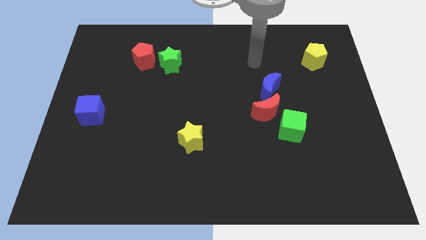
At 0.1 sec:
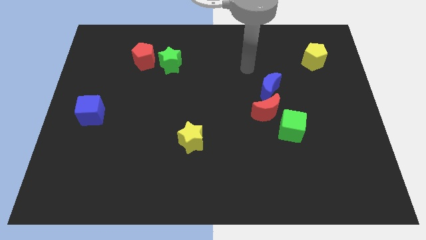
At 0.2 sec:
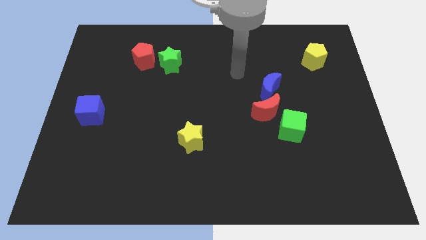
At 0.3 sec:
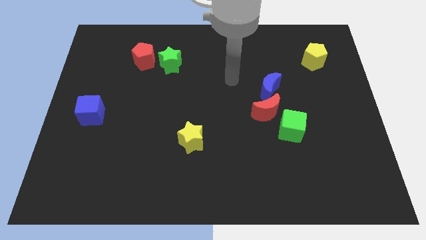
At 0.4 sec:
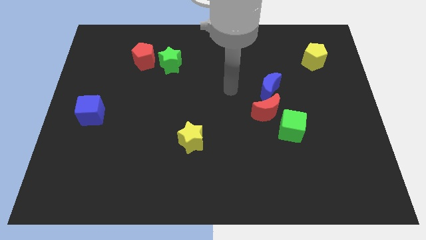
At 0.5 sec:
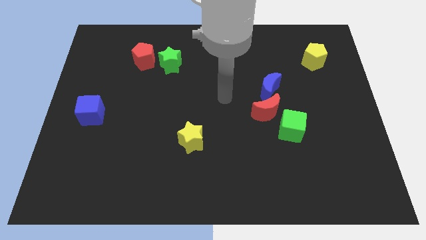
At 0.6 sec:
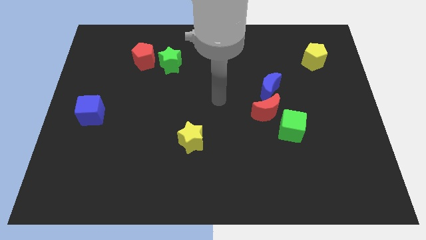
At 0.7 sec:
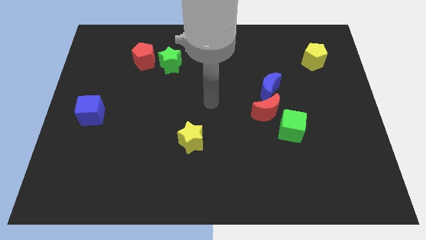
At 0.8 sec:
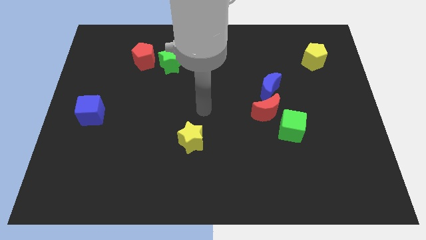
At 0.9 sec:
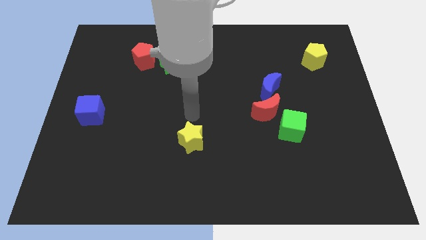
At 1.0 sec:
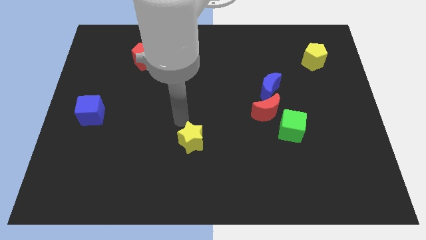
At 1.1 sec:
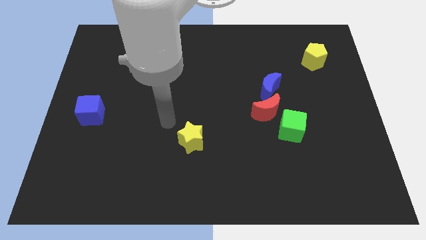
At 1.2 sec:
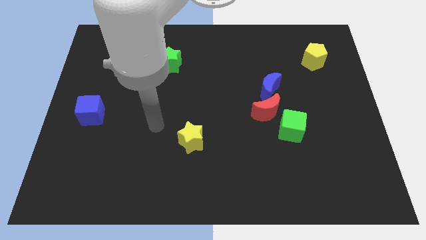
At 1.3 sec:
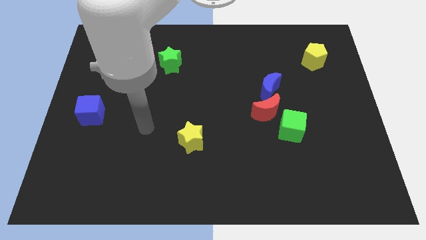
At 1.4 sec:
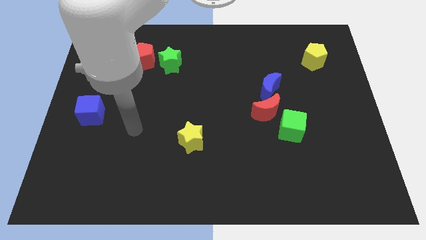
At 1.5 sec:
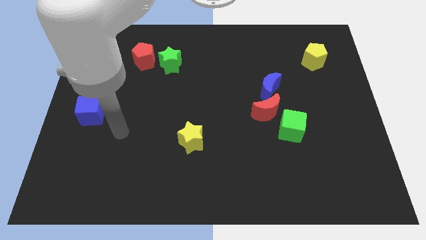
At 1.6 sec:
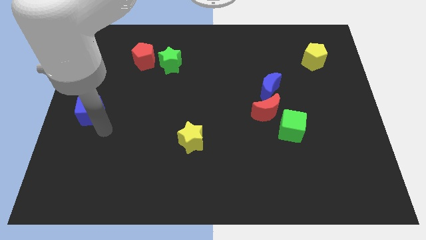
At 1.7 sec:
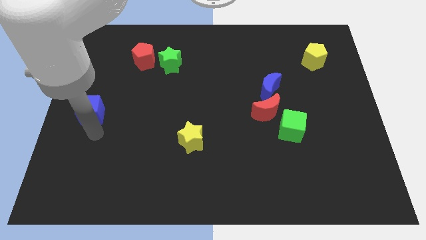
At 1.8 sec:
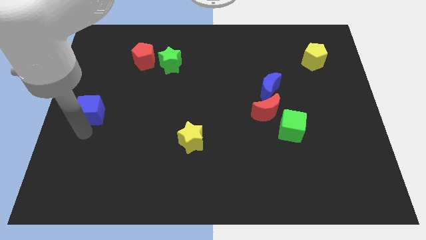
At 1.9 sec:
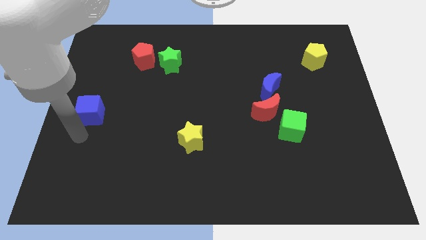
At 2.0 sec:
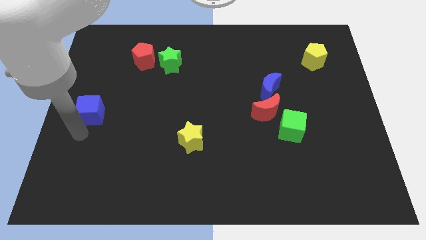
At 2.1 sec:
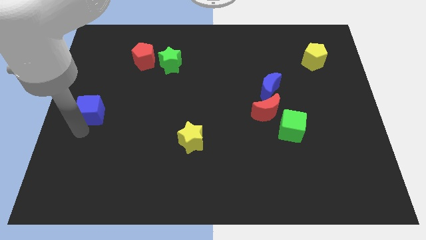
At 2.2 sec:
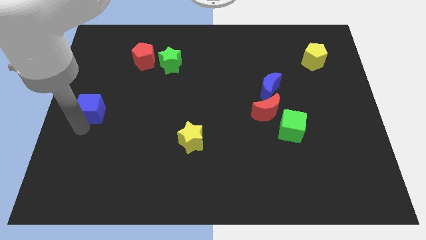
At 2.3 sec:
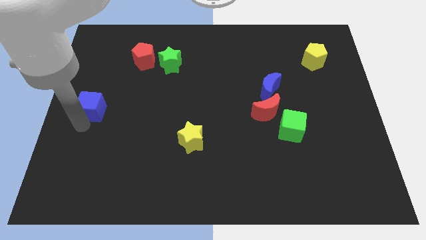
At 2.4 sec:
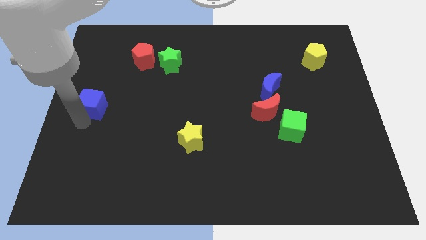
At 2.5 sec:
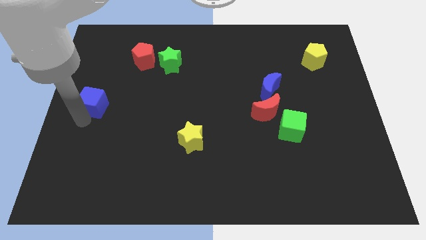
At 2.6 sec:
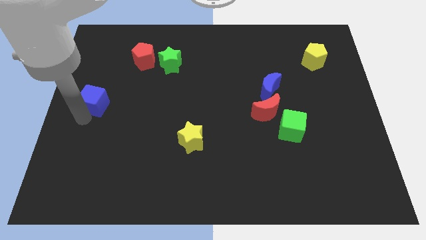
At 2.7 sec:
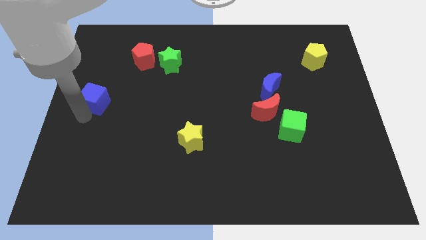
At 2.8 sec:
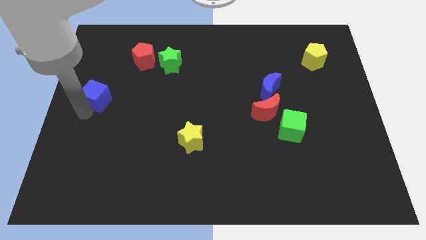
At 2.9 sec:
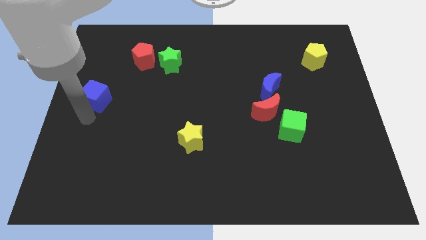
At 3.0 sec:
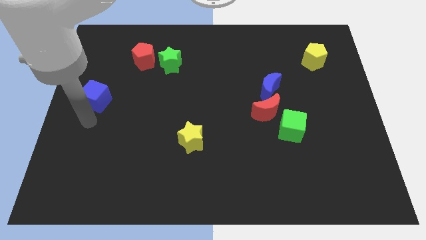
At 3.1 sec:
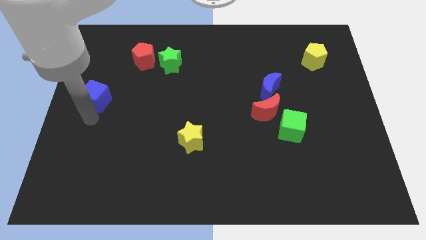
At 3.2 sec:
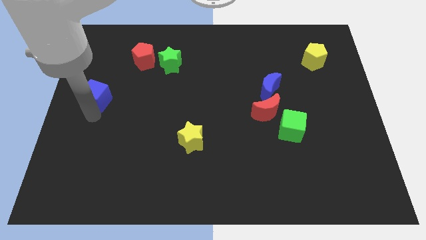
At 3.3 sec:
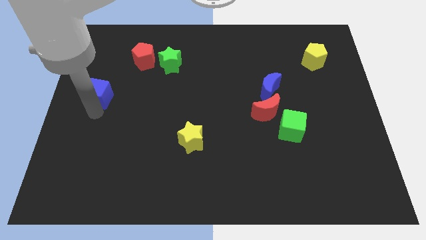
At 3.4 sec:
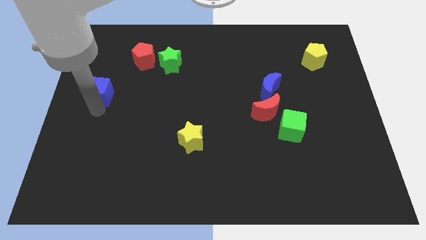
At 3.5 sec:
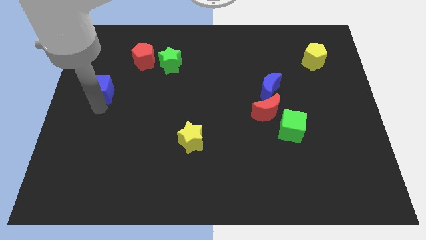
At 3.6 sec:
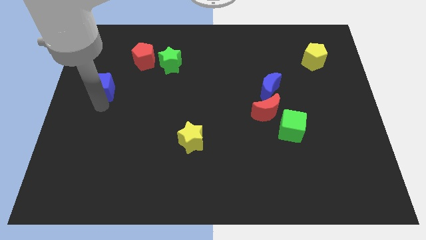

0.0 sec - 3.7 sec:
move the blue cube upwards somewhat

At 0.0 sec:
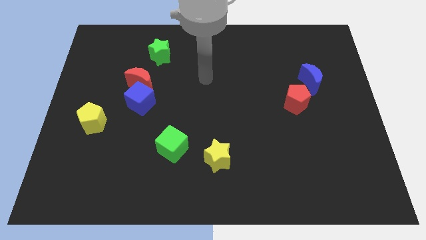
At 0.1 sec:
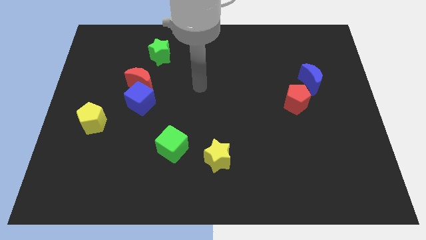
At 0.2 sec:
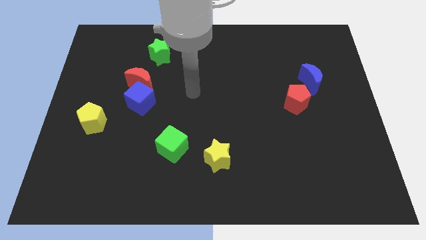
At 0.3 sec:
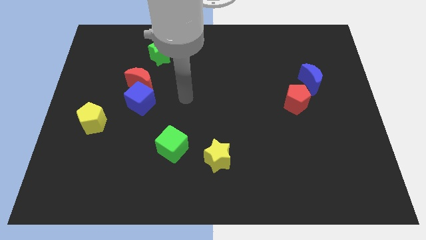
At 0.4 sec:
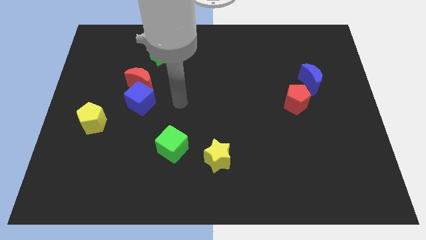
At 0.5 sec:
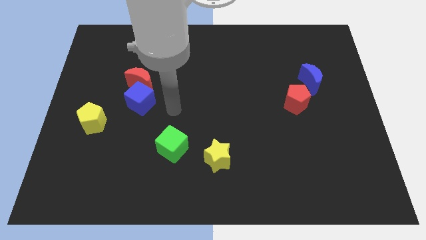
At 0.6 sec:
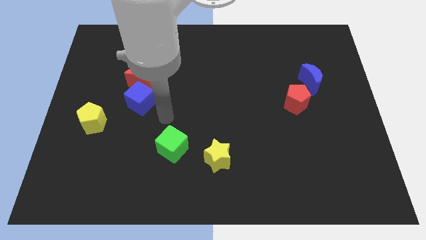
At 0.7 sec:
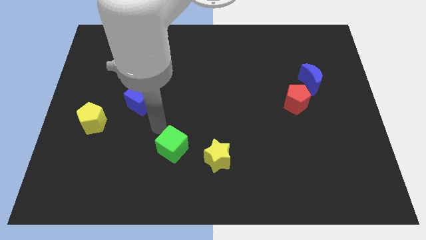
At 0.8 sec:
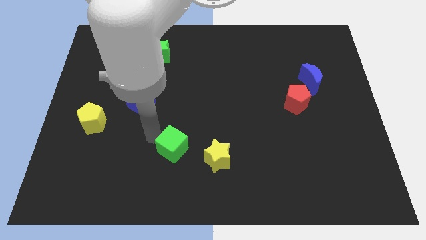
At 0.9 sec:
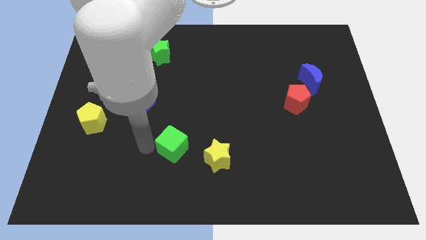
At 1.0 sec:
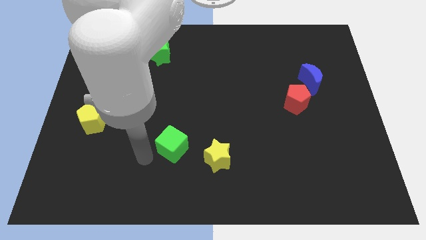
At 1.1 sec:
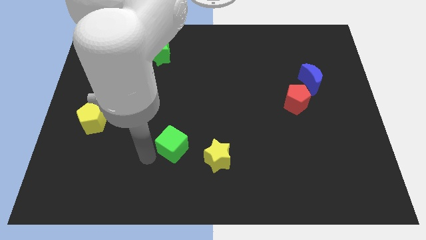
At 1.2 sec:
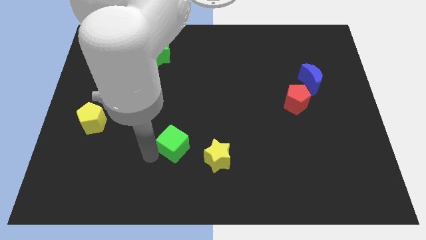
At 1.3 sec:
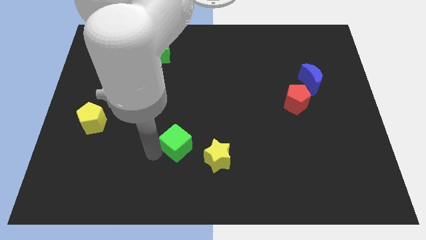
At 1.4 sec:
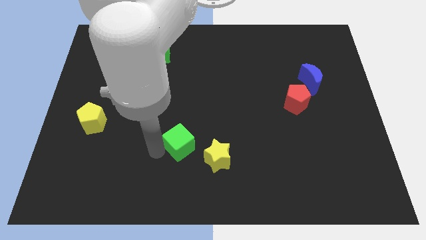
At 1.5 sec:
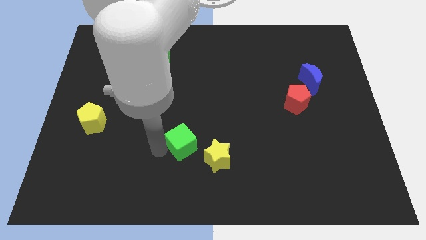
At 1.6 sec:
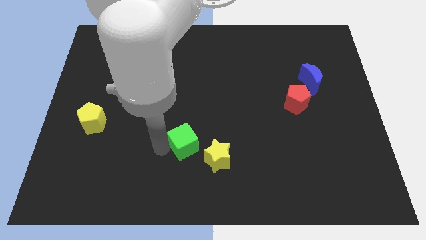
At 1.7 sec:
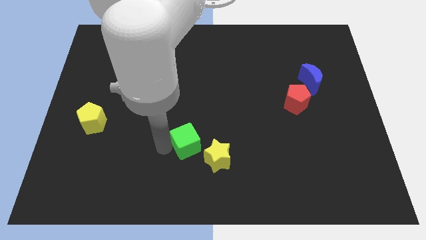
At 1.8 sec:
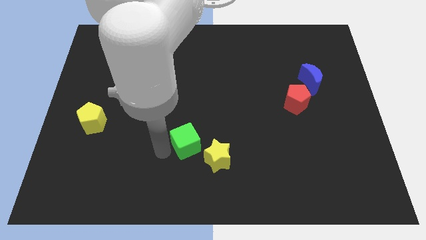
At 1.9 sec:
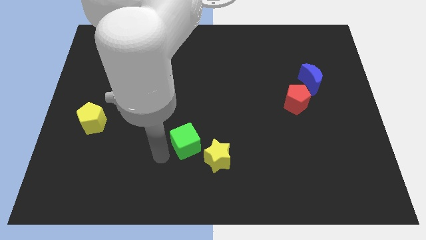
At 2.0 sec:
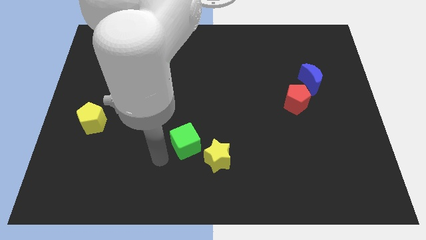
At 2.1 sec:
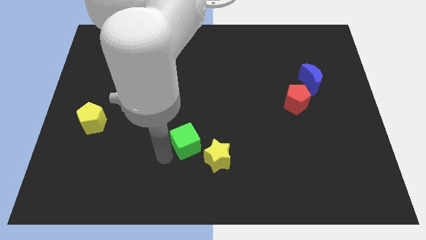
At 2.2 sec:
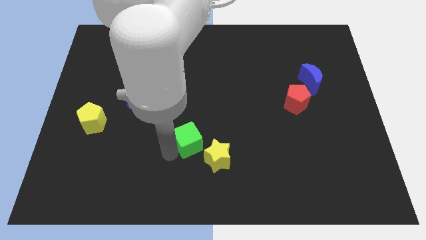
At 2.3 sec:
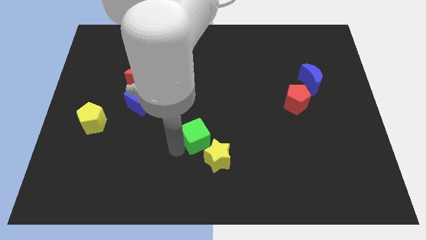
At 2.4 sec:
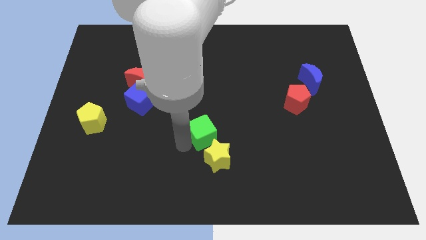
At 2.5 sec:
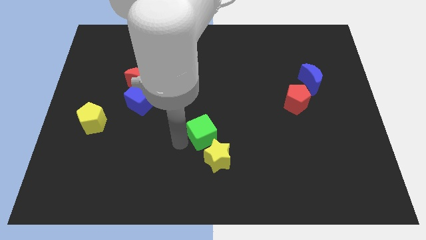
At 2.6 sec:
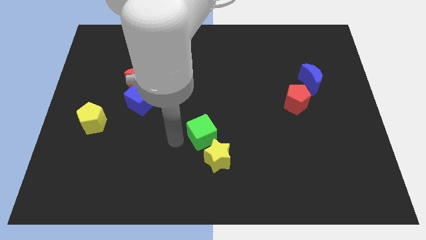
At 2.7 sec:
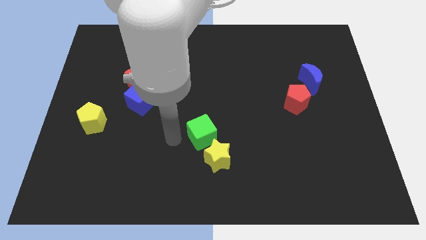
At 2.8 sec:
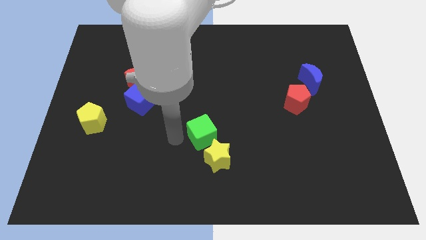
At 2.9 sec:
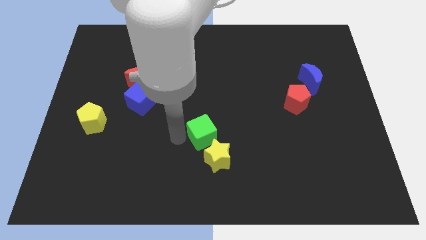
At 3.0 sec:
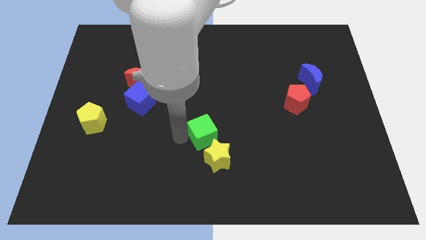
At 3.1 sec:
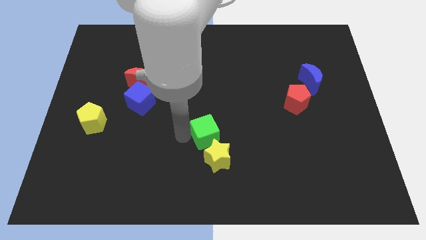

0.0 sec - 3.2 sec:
slightly slide the green cube to the right

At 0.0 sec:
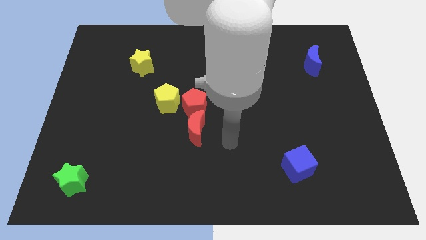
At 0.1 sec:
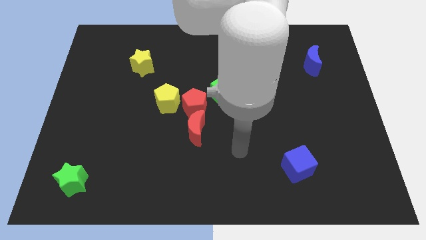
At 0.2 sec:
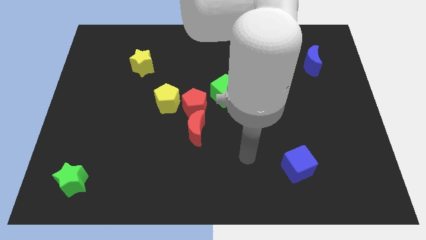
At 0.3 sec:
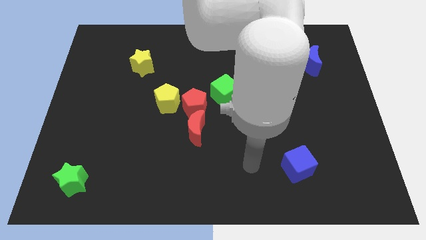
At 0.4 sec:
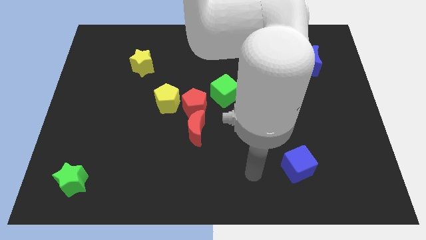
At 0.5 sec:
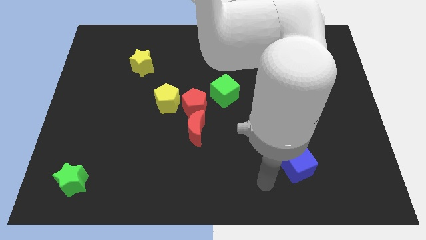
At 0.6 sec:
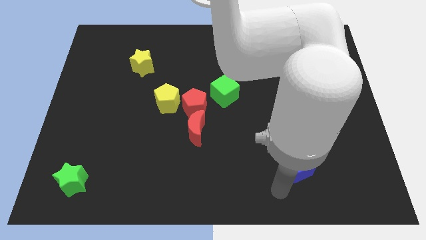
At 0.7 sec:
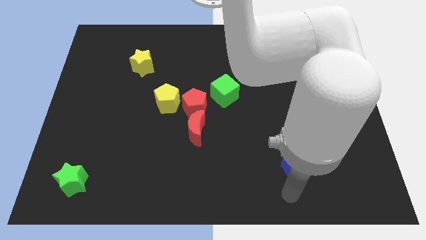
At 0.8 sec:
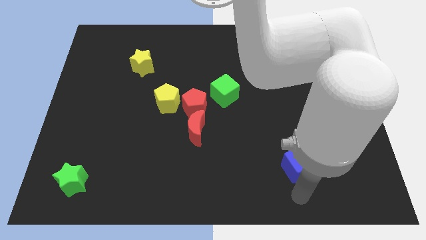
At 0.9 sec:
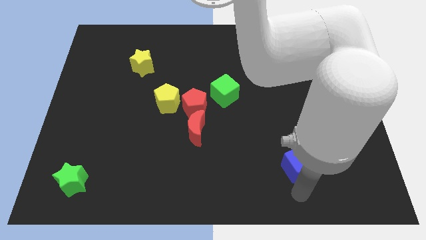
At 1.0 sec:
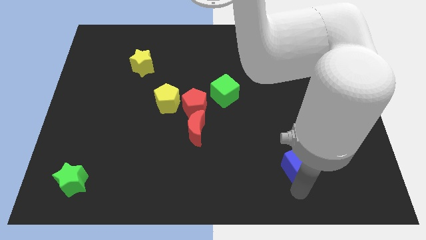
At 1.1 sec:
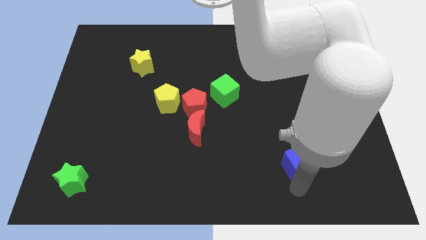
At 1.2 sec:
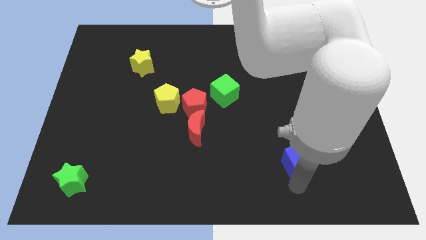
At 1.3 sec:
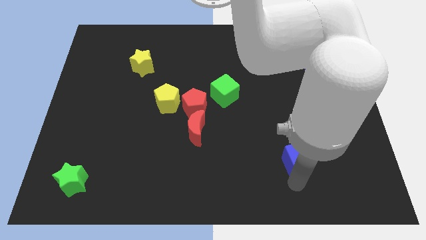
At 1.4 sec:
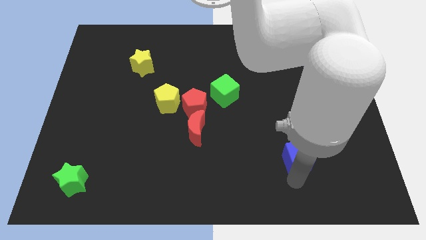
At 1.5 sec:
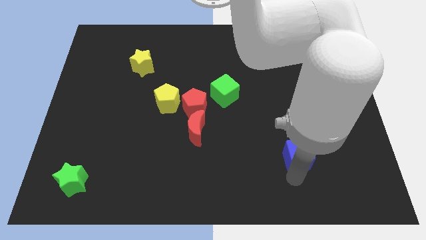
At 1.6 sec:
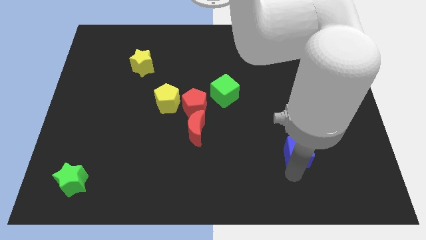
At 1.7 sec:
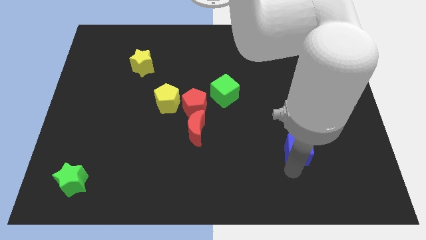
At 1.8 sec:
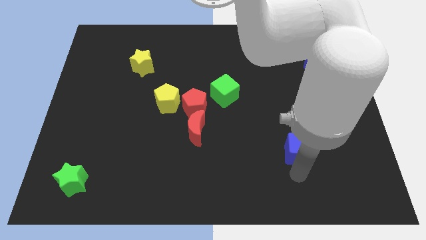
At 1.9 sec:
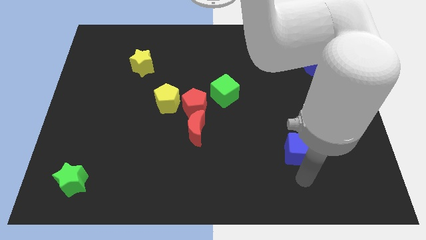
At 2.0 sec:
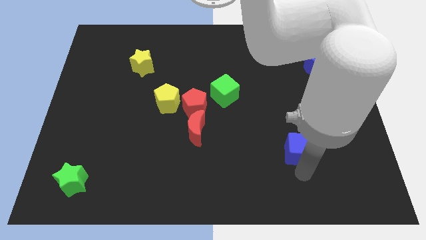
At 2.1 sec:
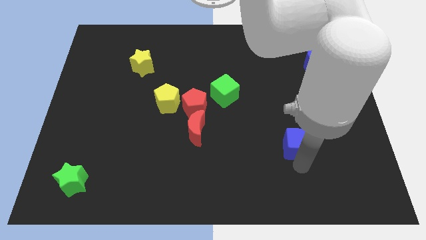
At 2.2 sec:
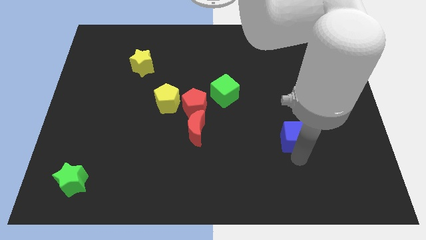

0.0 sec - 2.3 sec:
move the blue cube up slightly
